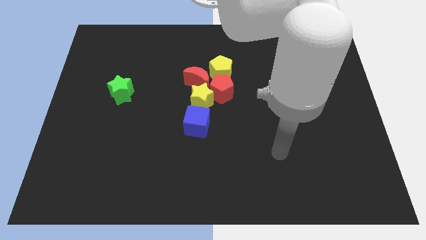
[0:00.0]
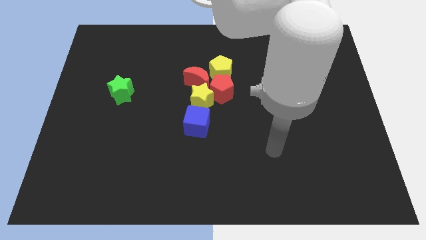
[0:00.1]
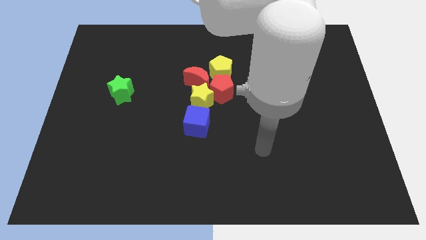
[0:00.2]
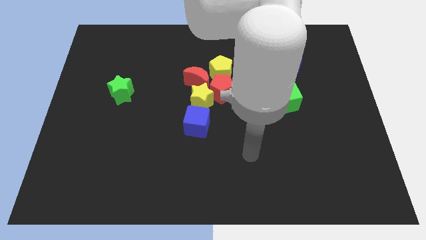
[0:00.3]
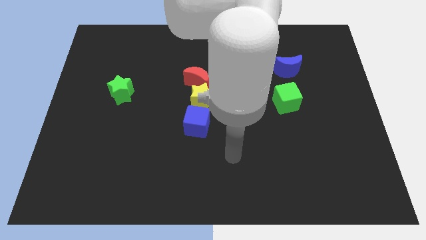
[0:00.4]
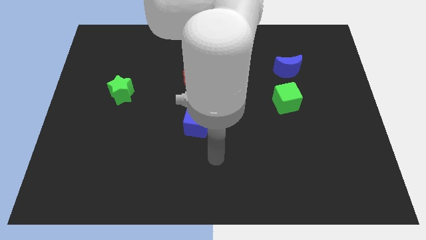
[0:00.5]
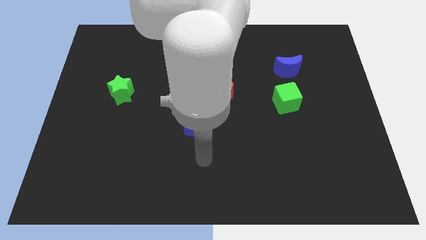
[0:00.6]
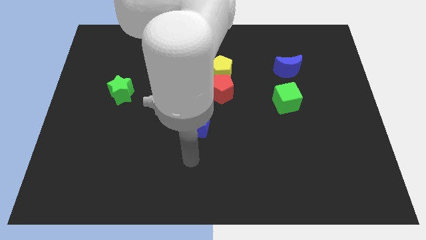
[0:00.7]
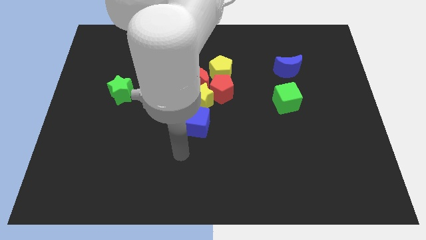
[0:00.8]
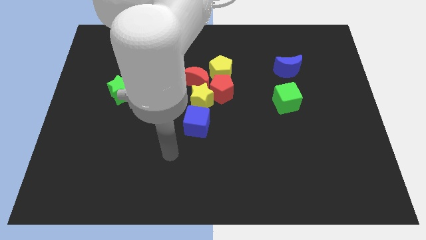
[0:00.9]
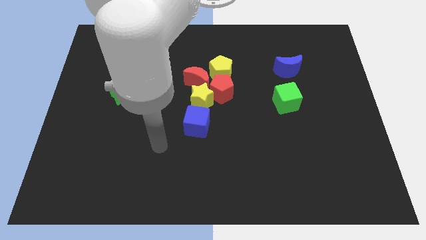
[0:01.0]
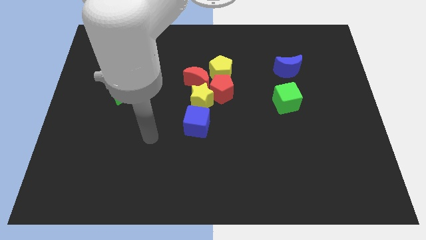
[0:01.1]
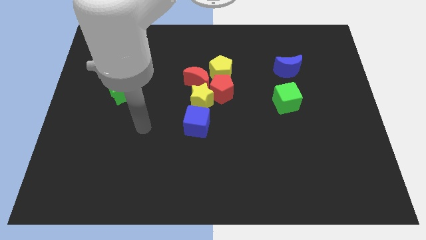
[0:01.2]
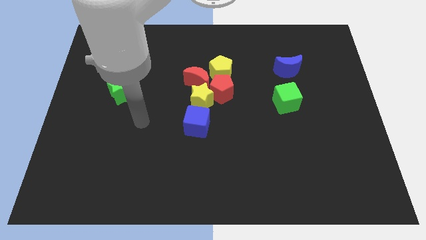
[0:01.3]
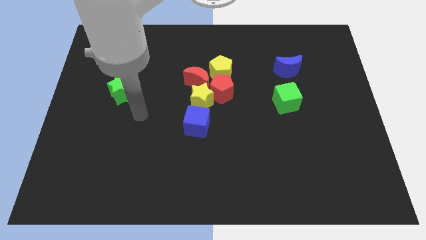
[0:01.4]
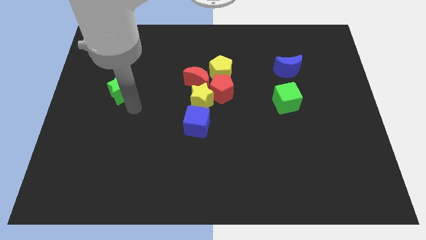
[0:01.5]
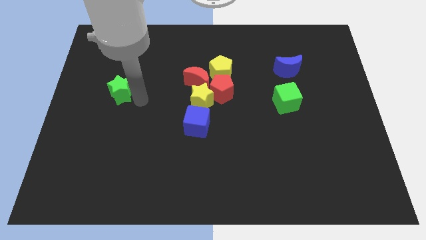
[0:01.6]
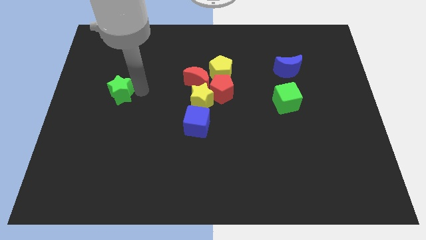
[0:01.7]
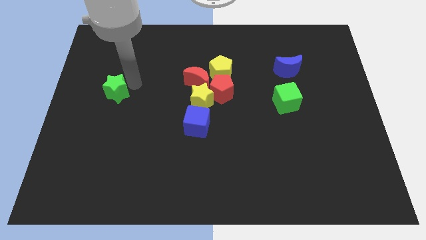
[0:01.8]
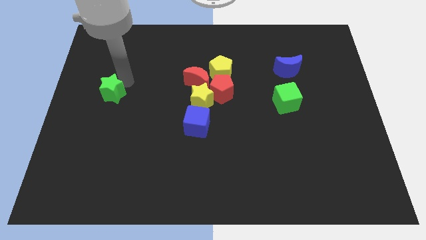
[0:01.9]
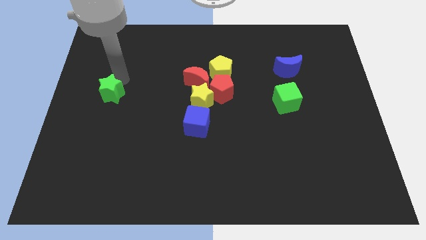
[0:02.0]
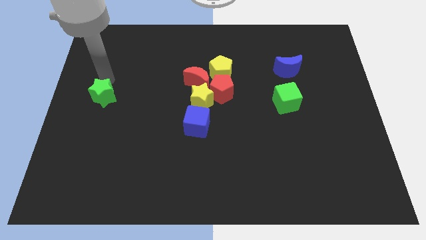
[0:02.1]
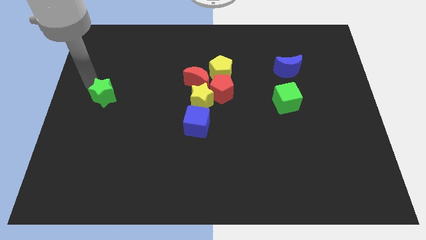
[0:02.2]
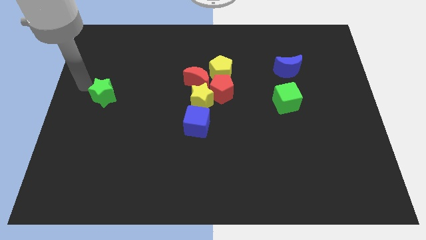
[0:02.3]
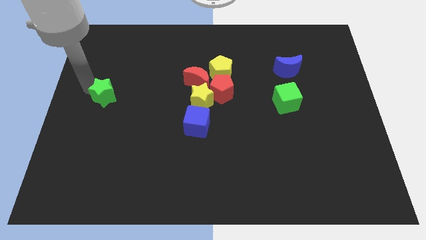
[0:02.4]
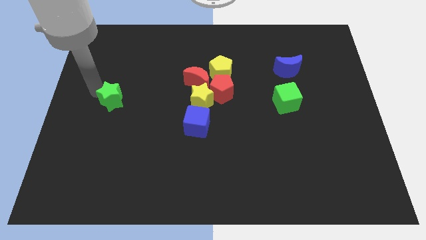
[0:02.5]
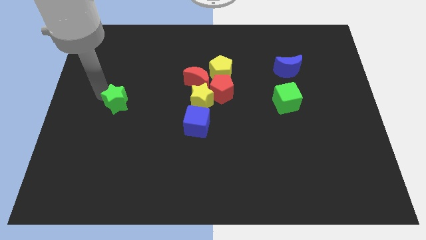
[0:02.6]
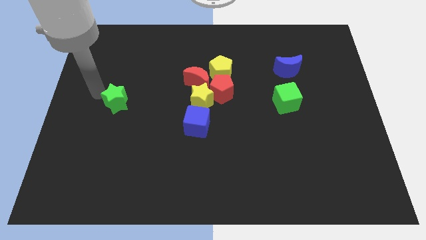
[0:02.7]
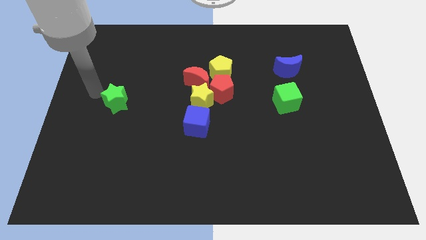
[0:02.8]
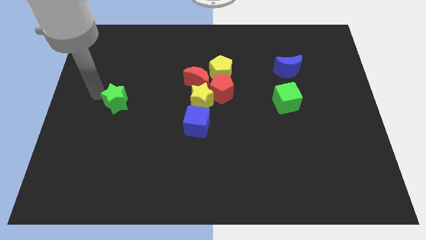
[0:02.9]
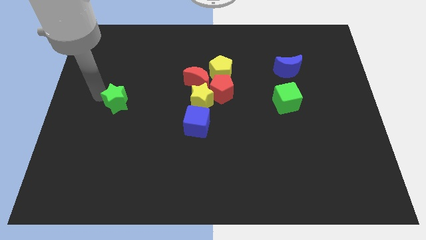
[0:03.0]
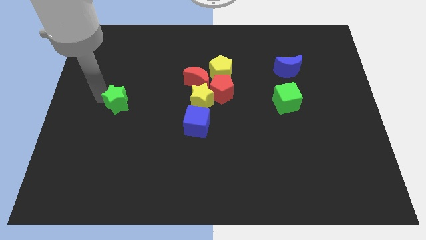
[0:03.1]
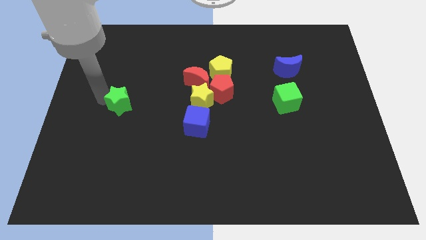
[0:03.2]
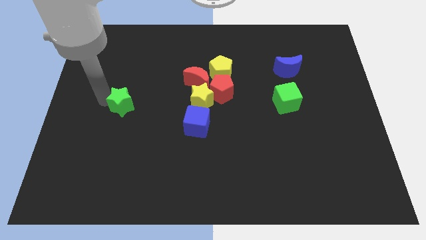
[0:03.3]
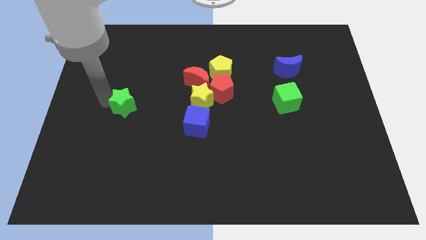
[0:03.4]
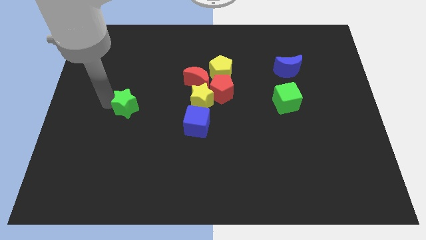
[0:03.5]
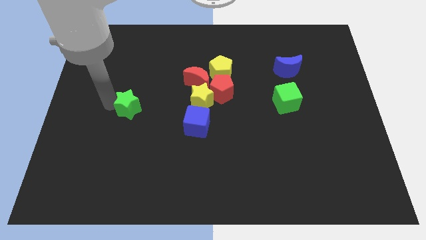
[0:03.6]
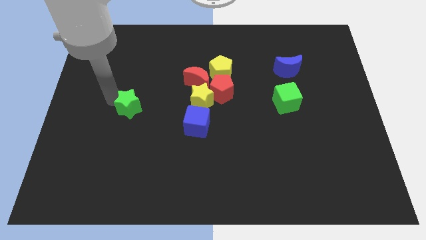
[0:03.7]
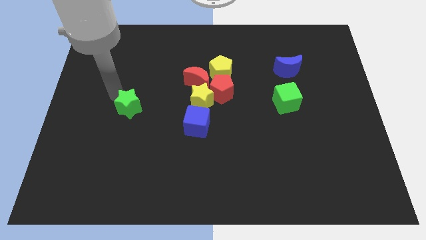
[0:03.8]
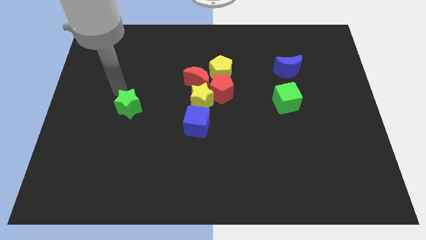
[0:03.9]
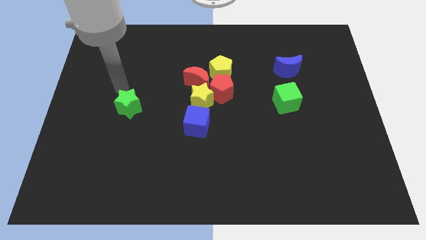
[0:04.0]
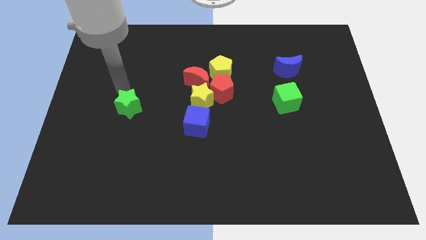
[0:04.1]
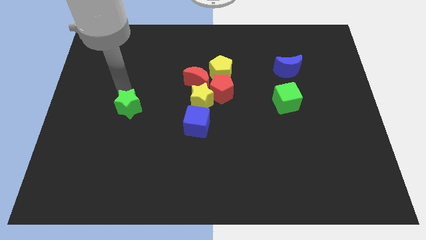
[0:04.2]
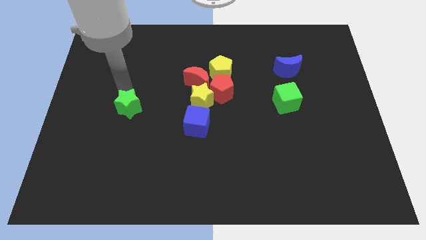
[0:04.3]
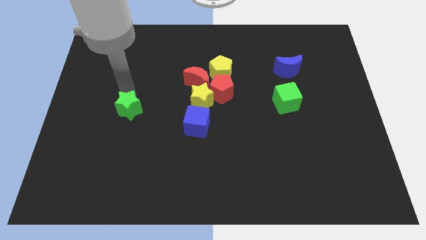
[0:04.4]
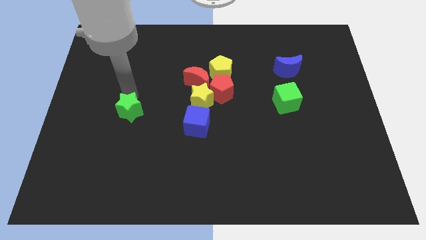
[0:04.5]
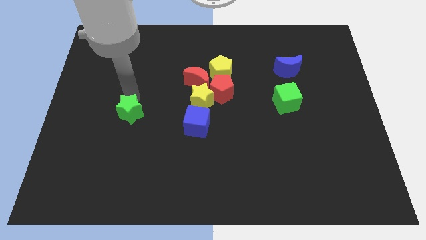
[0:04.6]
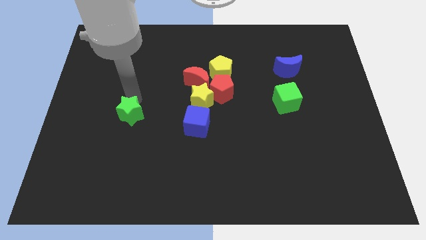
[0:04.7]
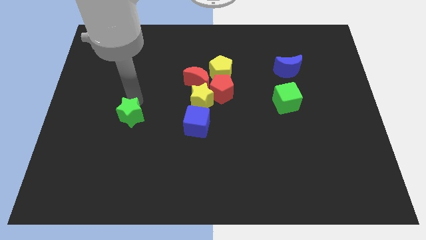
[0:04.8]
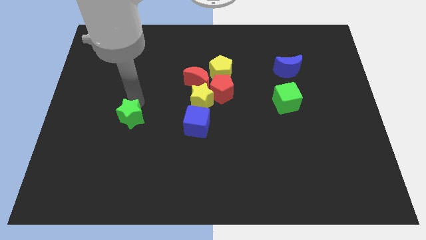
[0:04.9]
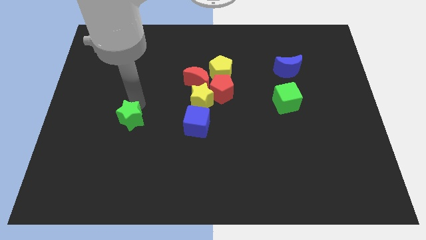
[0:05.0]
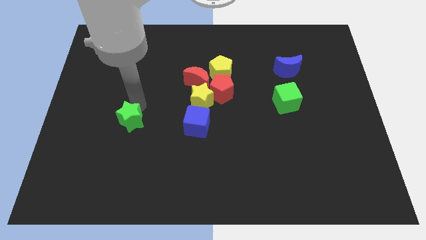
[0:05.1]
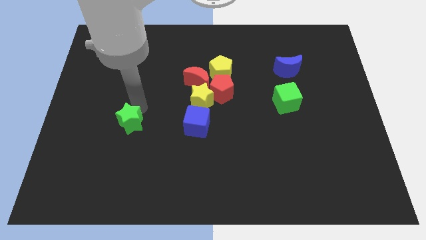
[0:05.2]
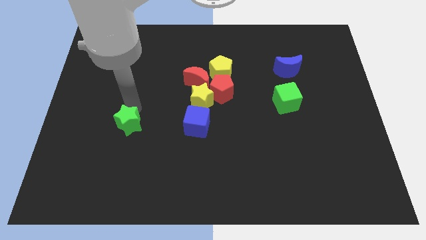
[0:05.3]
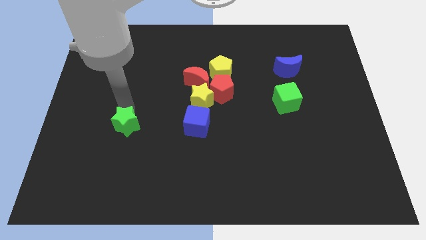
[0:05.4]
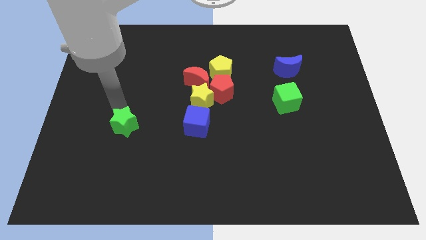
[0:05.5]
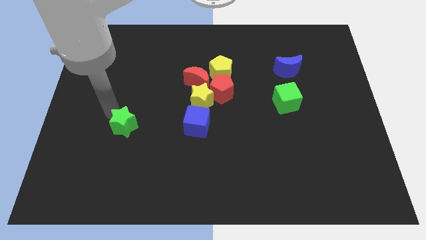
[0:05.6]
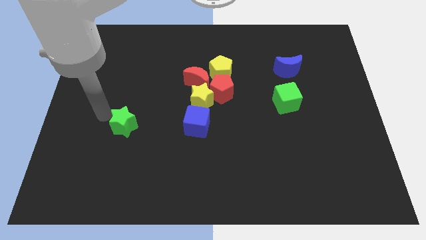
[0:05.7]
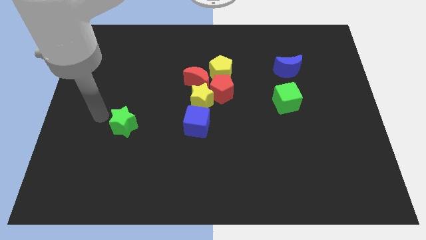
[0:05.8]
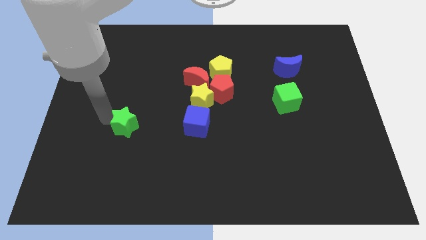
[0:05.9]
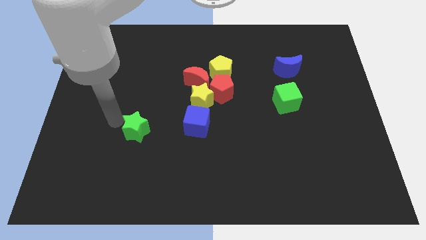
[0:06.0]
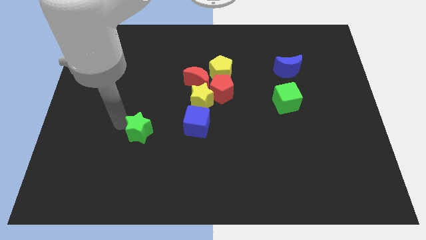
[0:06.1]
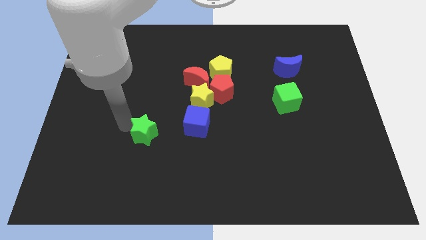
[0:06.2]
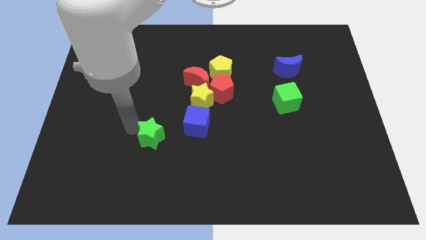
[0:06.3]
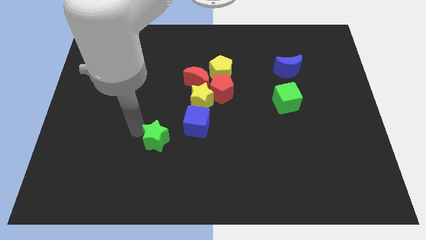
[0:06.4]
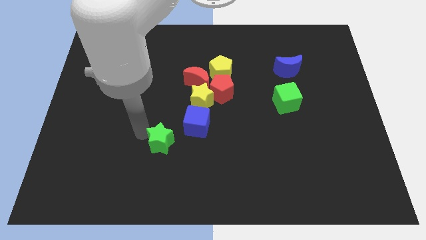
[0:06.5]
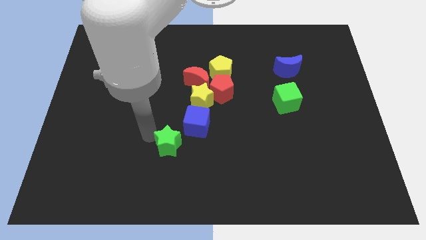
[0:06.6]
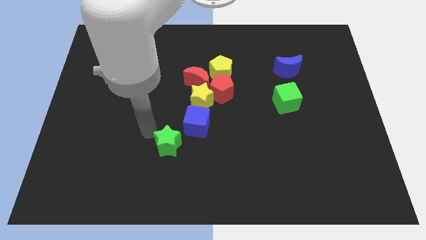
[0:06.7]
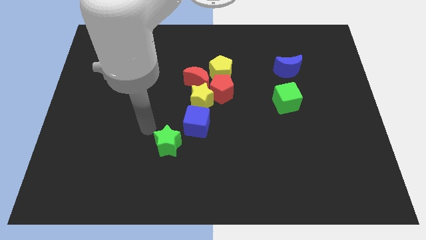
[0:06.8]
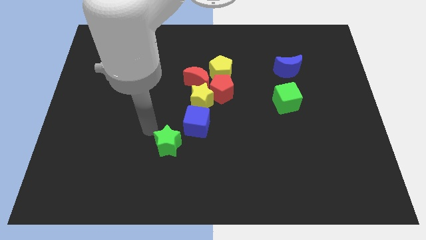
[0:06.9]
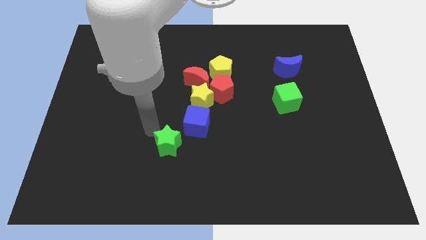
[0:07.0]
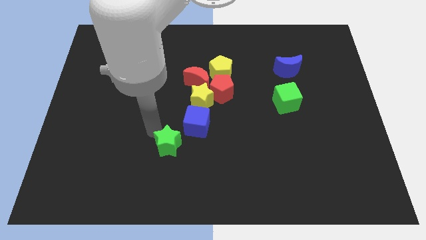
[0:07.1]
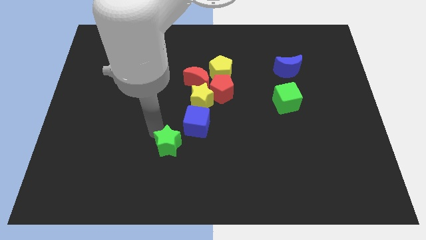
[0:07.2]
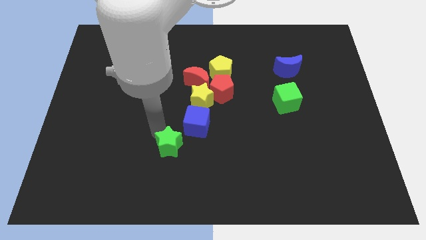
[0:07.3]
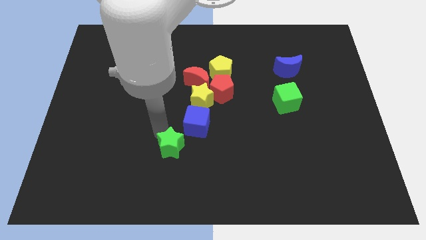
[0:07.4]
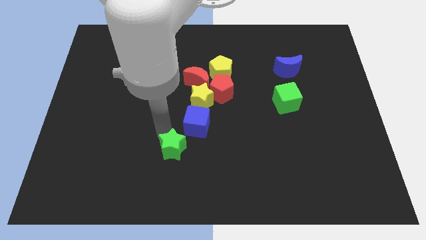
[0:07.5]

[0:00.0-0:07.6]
slide the green star diagonally downwards and to the right

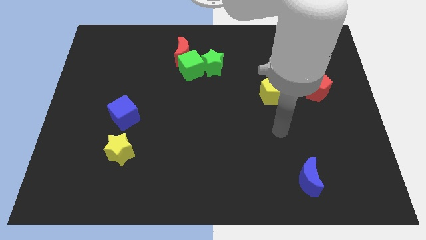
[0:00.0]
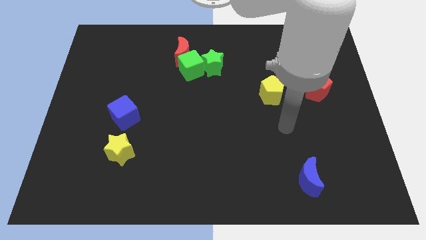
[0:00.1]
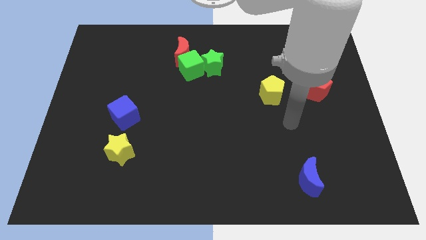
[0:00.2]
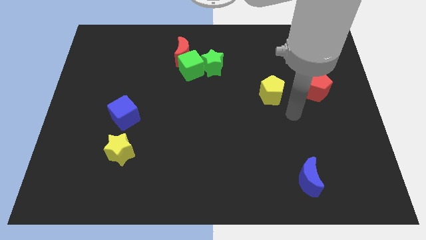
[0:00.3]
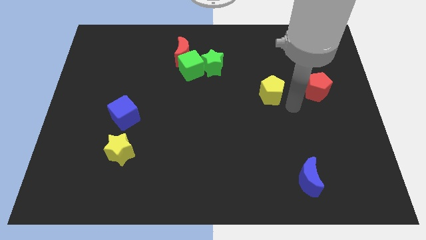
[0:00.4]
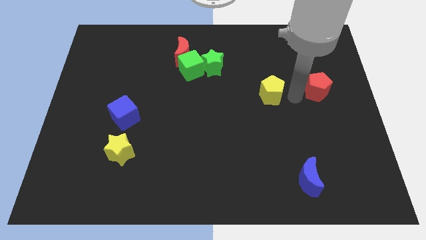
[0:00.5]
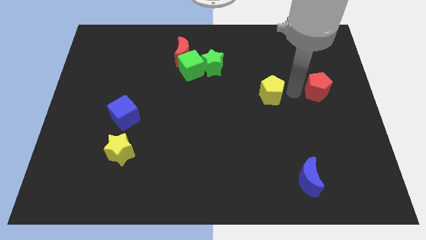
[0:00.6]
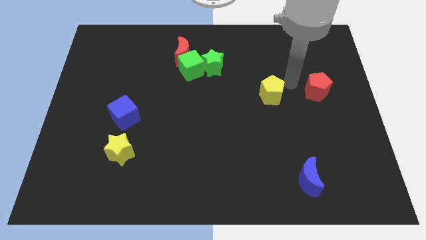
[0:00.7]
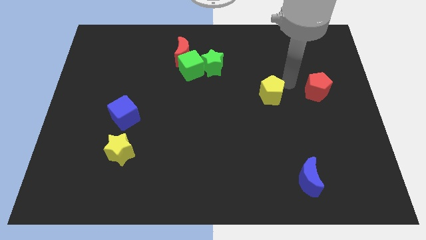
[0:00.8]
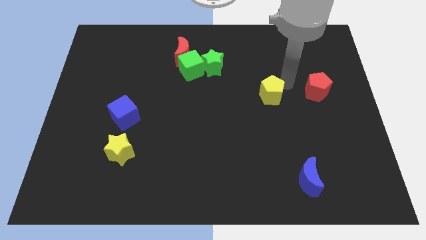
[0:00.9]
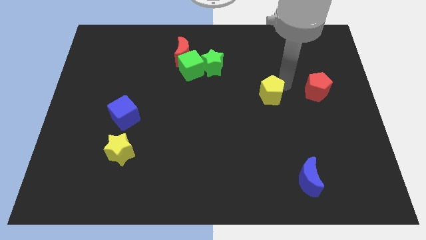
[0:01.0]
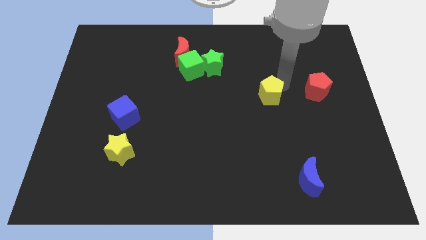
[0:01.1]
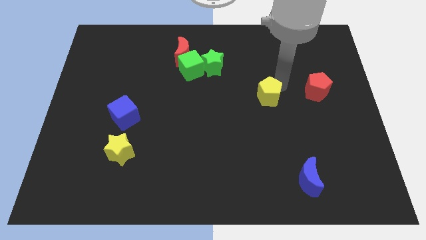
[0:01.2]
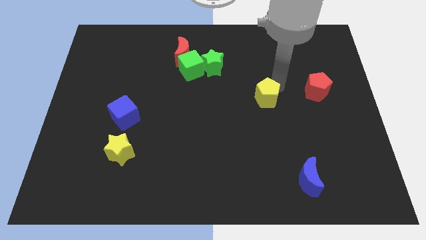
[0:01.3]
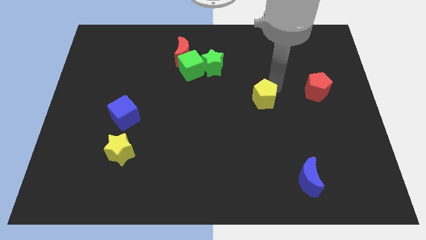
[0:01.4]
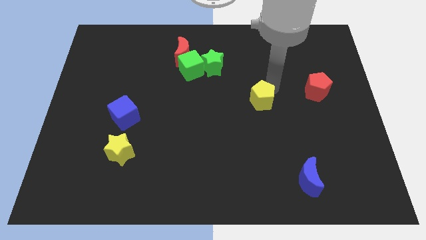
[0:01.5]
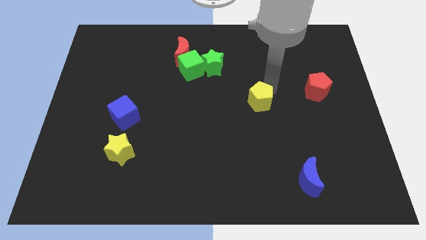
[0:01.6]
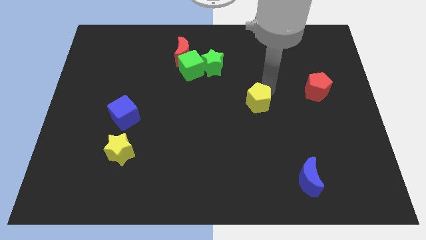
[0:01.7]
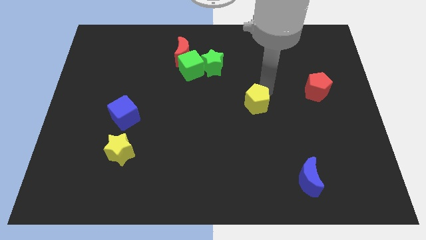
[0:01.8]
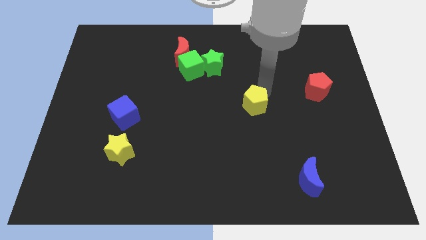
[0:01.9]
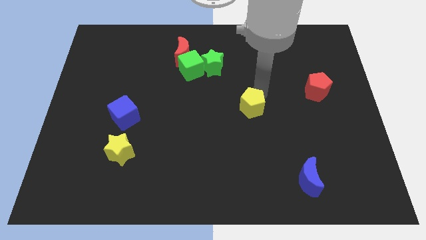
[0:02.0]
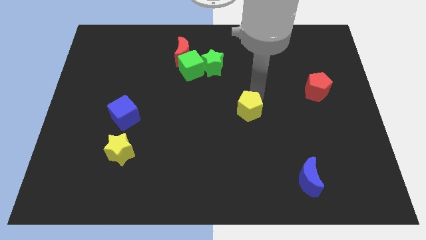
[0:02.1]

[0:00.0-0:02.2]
push the yellow pentagon down and to the left slightly
